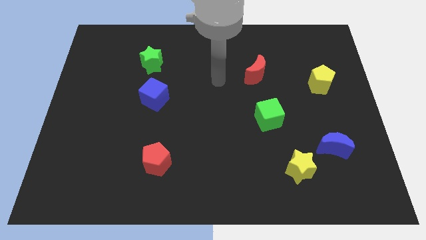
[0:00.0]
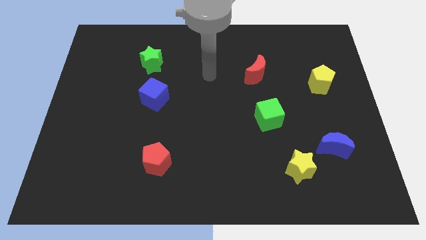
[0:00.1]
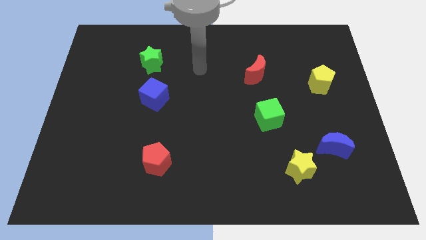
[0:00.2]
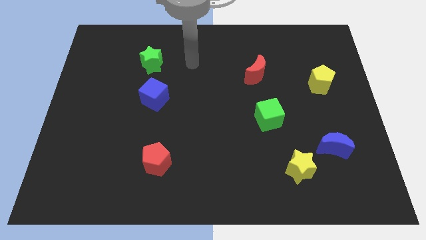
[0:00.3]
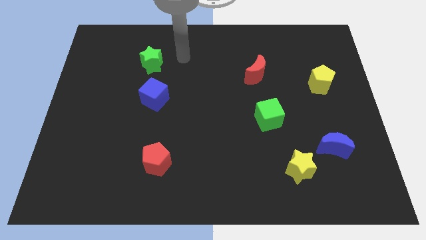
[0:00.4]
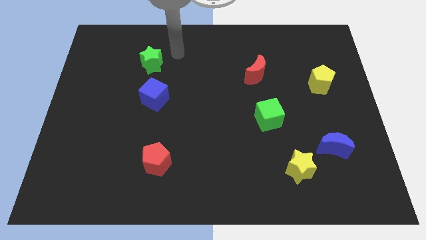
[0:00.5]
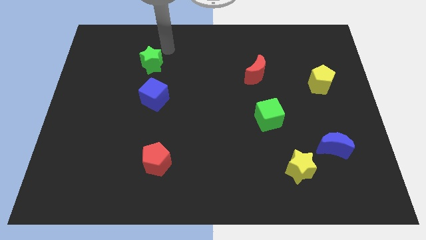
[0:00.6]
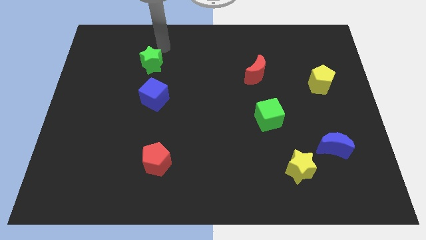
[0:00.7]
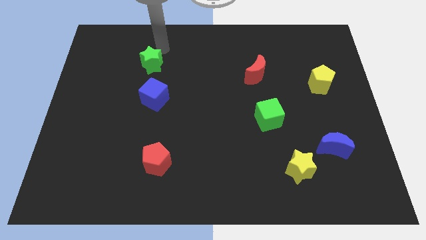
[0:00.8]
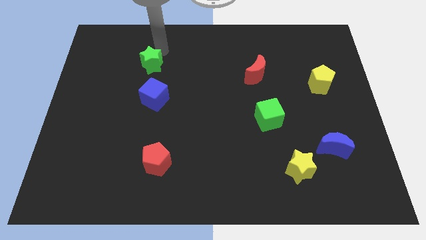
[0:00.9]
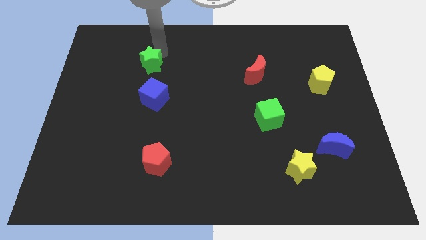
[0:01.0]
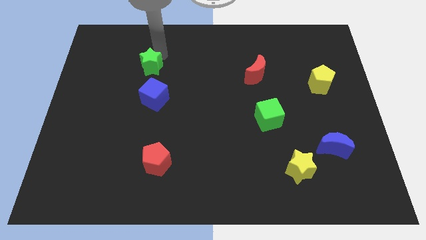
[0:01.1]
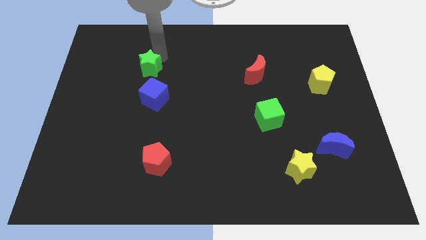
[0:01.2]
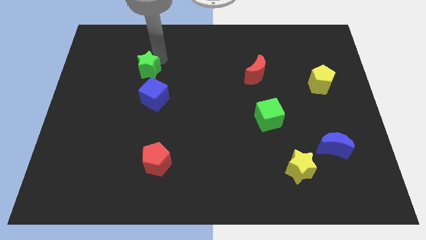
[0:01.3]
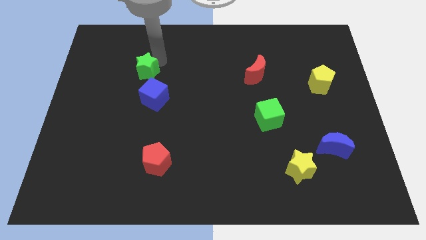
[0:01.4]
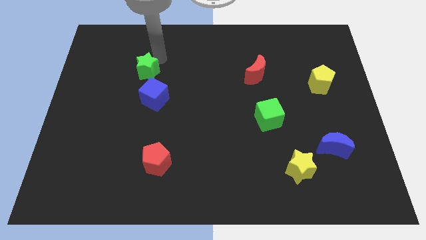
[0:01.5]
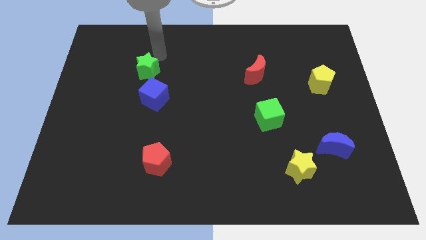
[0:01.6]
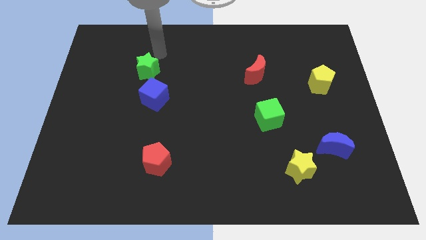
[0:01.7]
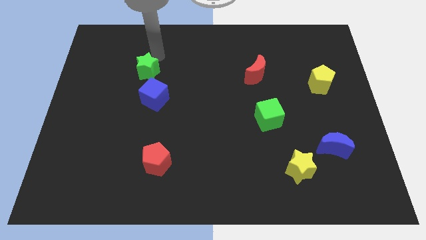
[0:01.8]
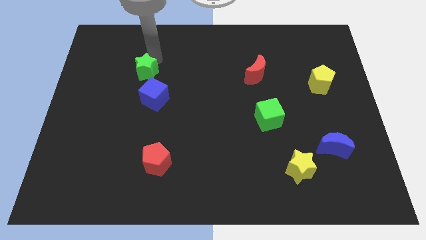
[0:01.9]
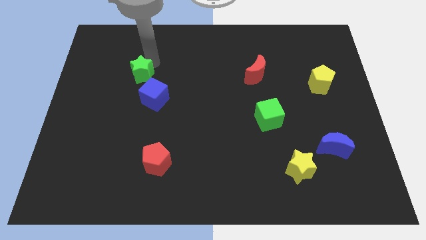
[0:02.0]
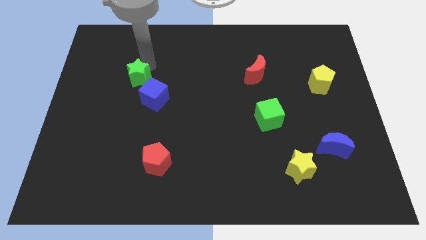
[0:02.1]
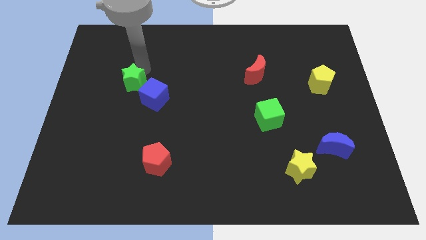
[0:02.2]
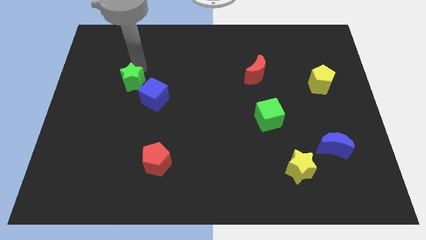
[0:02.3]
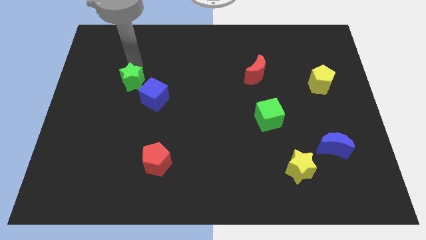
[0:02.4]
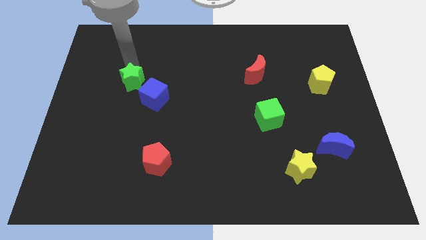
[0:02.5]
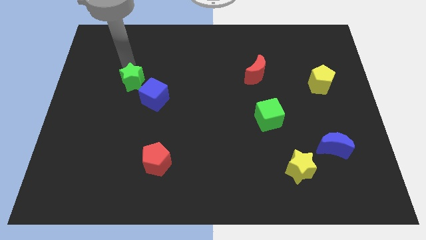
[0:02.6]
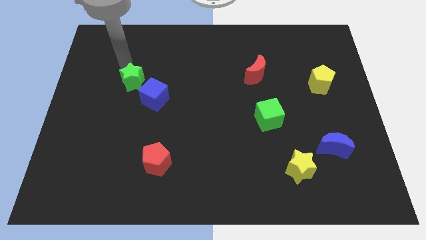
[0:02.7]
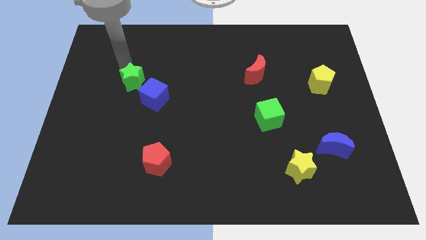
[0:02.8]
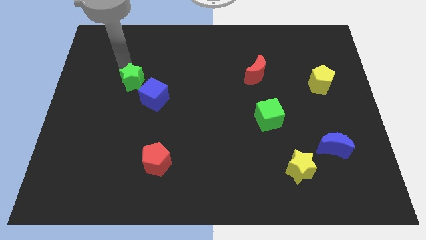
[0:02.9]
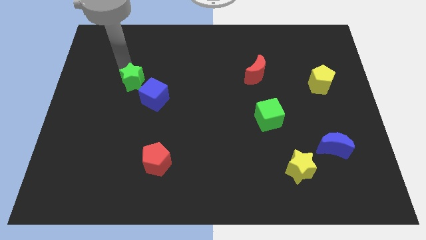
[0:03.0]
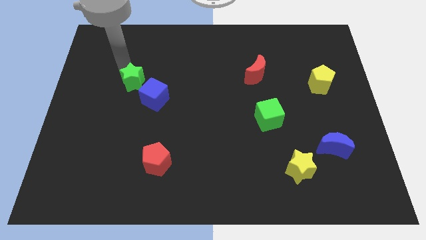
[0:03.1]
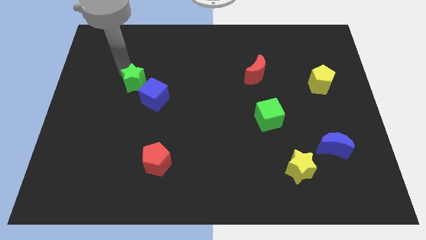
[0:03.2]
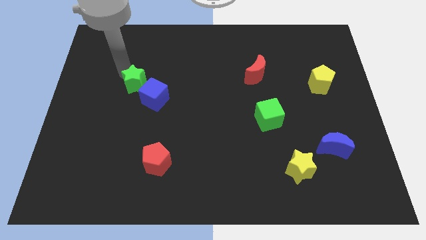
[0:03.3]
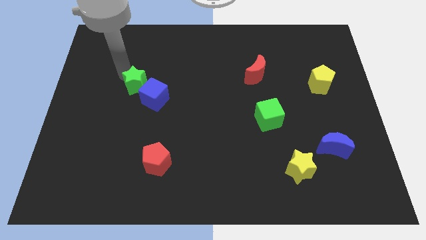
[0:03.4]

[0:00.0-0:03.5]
move the green star slightly down

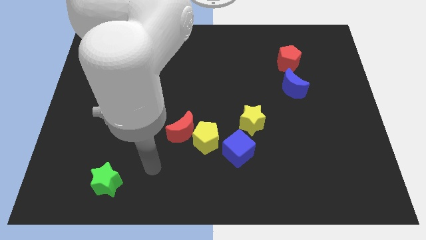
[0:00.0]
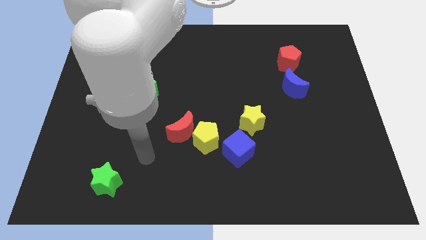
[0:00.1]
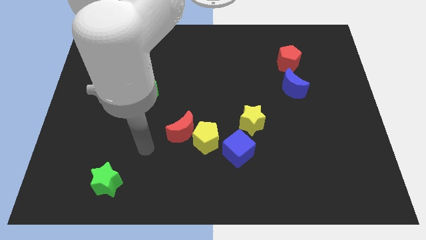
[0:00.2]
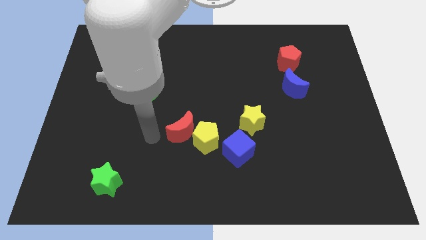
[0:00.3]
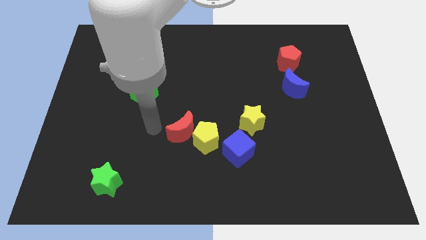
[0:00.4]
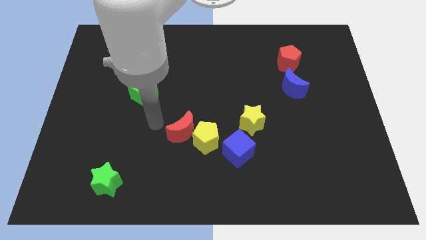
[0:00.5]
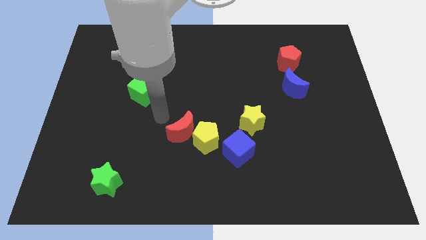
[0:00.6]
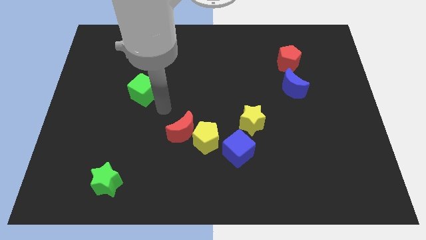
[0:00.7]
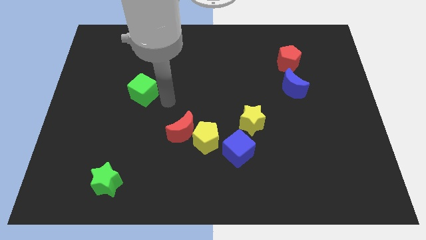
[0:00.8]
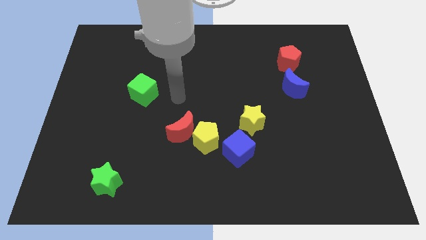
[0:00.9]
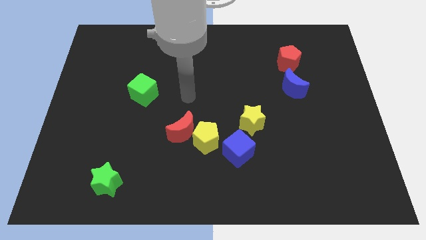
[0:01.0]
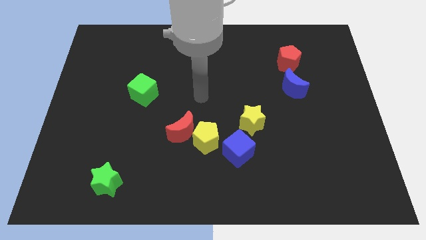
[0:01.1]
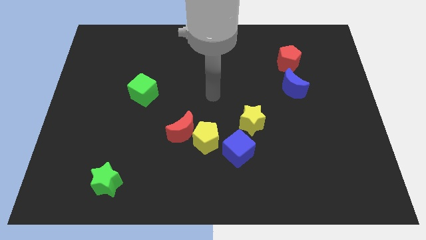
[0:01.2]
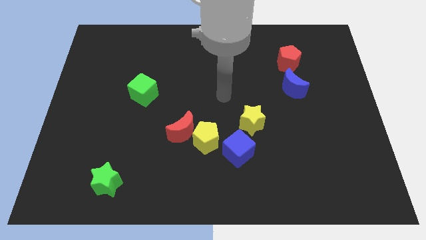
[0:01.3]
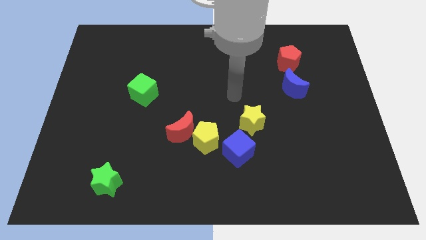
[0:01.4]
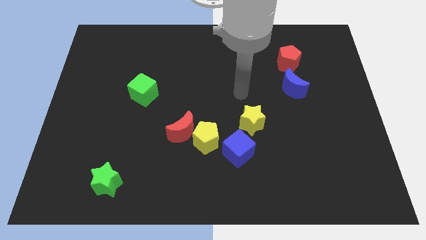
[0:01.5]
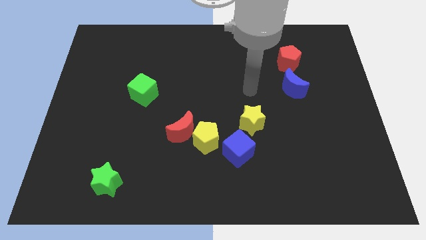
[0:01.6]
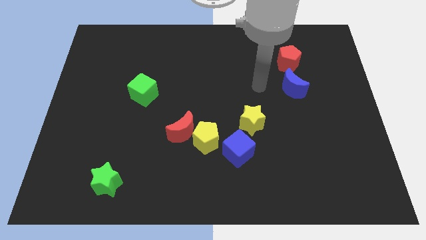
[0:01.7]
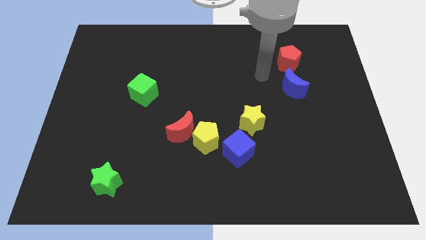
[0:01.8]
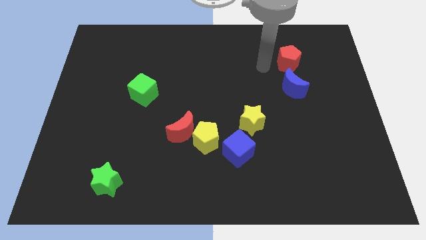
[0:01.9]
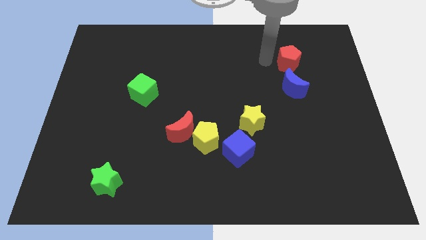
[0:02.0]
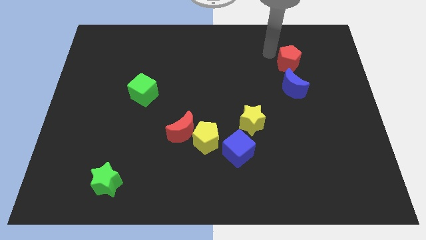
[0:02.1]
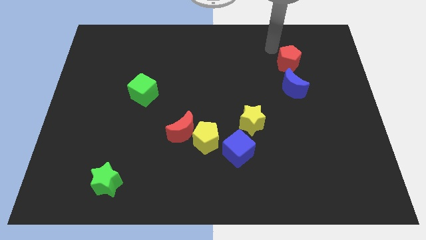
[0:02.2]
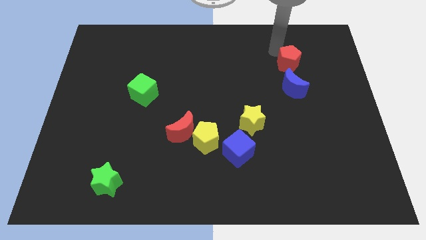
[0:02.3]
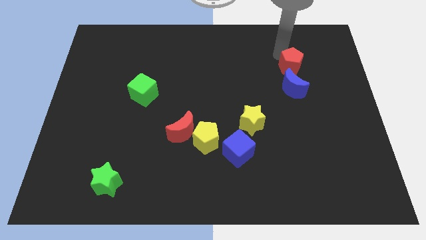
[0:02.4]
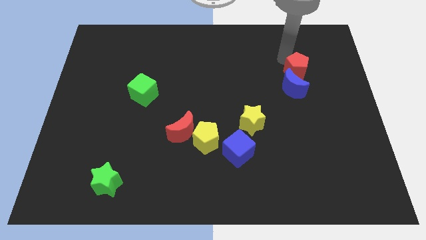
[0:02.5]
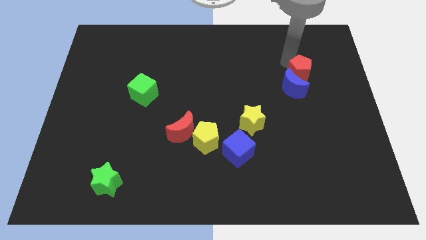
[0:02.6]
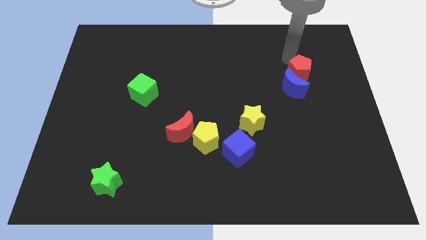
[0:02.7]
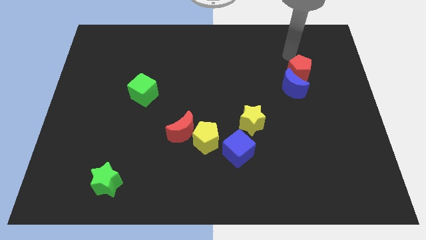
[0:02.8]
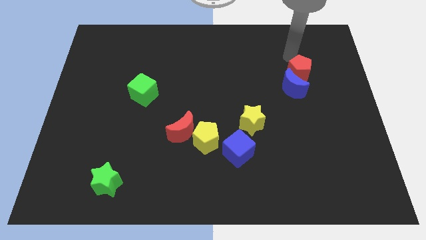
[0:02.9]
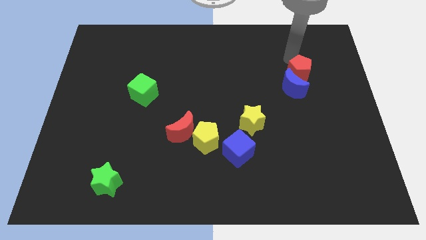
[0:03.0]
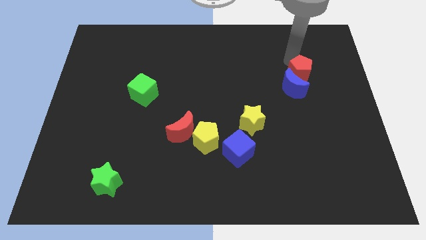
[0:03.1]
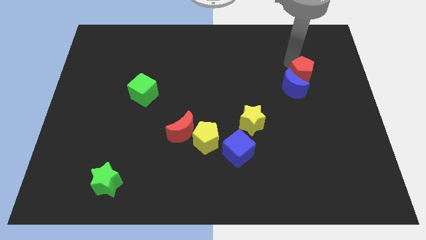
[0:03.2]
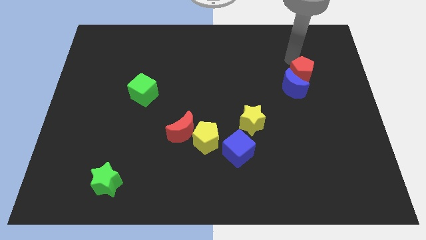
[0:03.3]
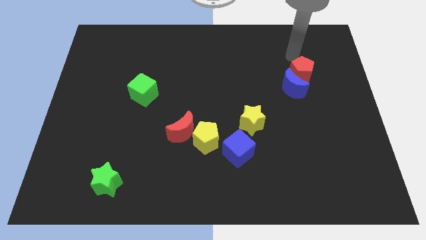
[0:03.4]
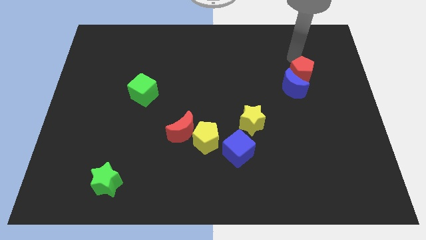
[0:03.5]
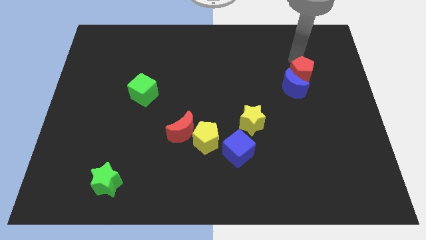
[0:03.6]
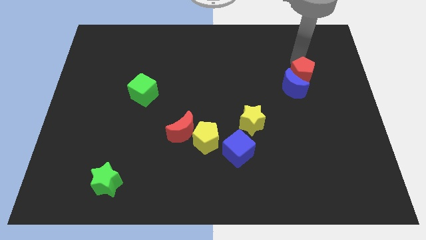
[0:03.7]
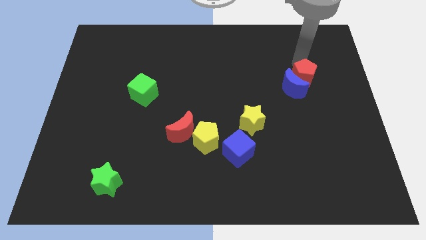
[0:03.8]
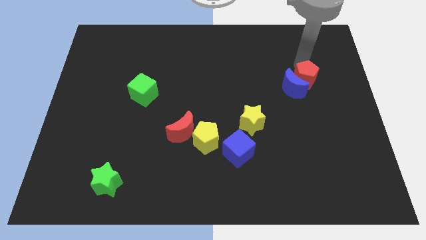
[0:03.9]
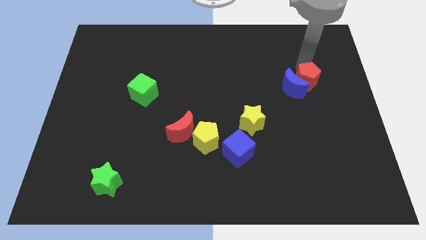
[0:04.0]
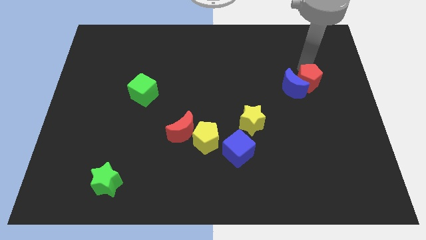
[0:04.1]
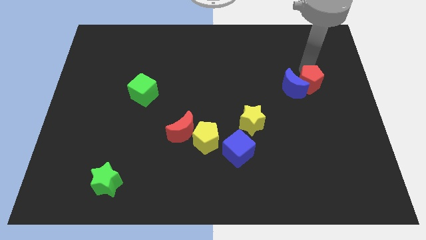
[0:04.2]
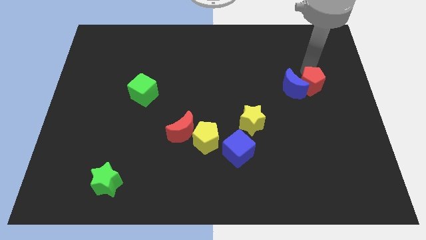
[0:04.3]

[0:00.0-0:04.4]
push the red pentagon a little downwards
